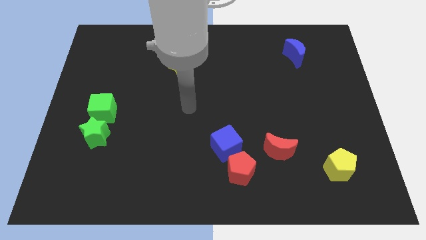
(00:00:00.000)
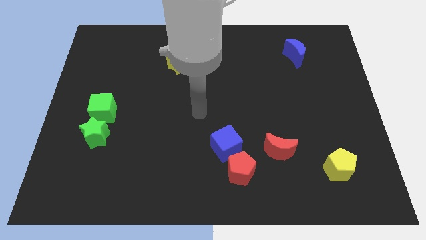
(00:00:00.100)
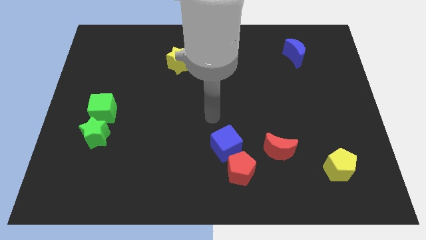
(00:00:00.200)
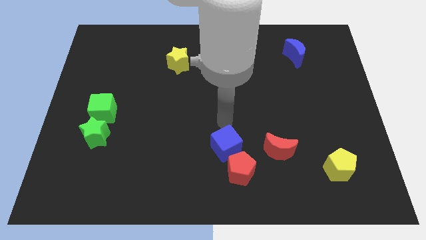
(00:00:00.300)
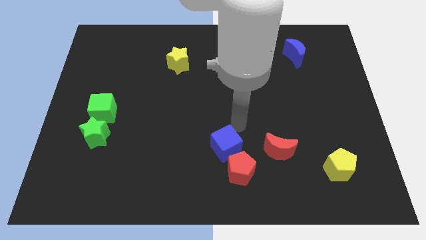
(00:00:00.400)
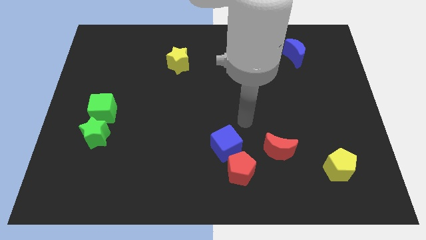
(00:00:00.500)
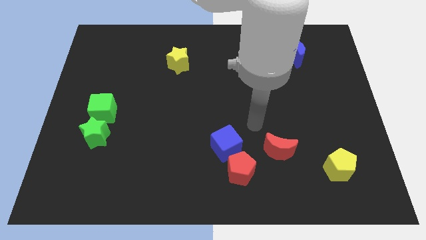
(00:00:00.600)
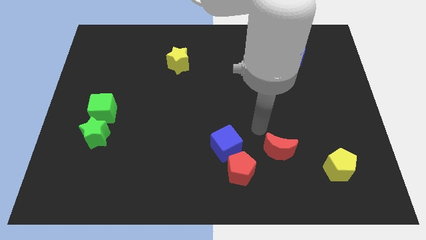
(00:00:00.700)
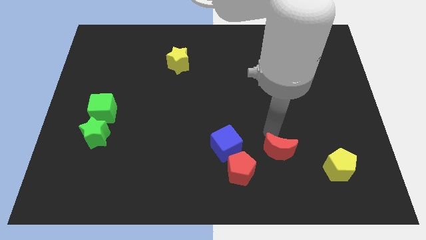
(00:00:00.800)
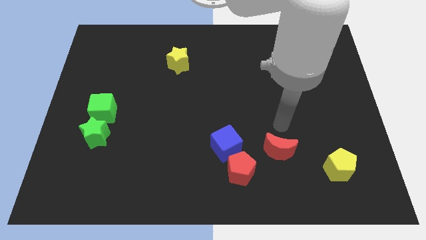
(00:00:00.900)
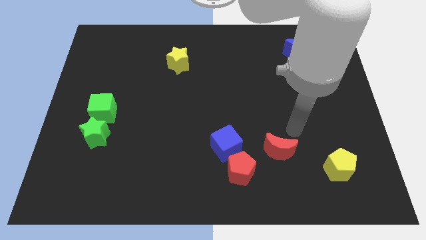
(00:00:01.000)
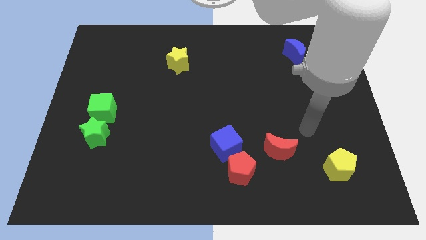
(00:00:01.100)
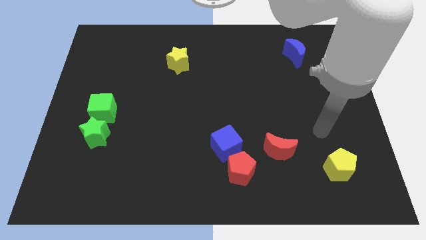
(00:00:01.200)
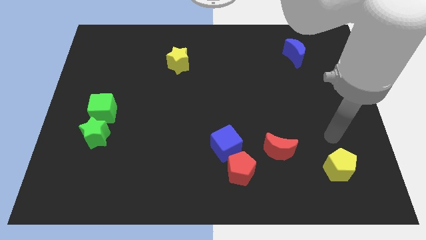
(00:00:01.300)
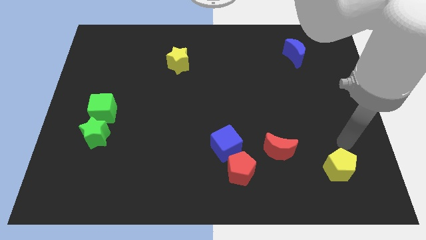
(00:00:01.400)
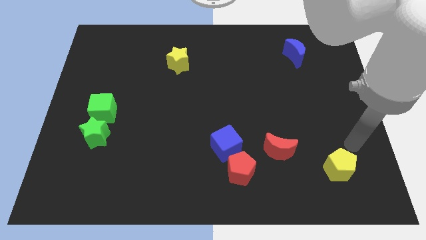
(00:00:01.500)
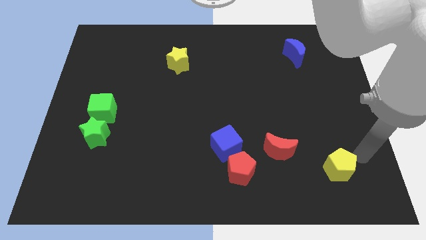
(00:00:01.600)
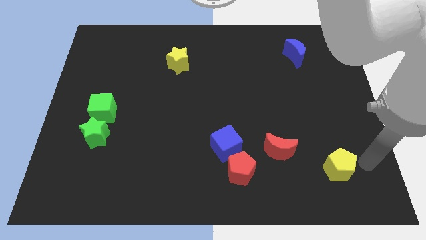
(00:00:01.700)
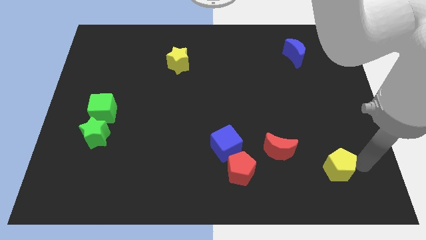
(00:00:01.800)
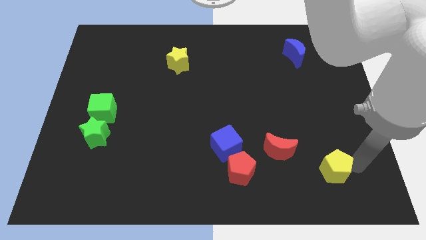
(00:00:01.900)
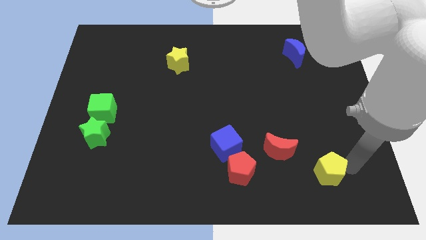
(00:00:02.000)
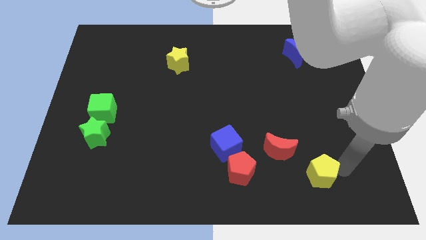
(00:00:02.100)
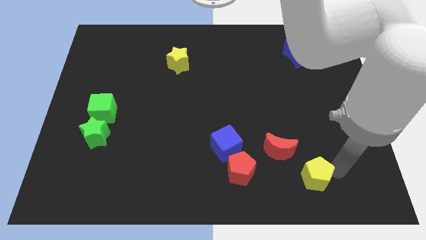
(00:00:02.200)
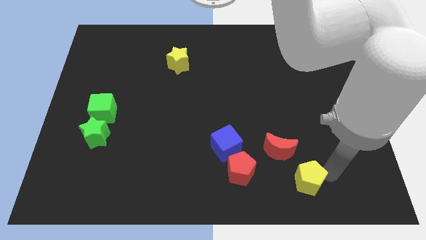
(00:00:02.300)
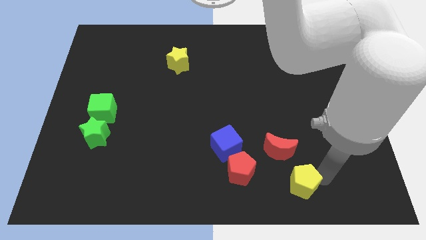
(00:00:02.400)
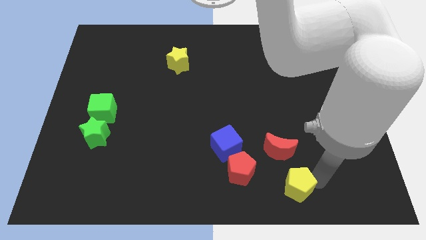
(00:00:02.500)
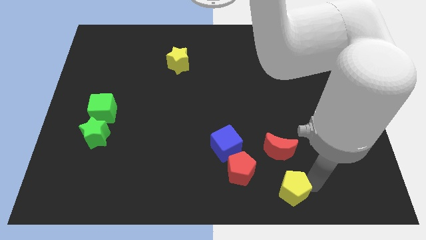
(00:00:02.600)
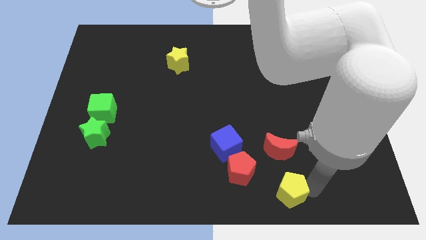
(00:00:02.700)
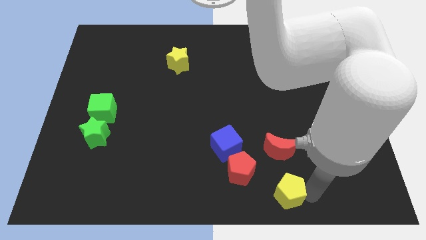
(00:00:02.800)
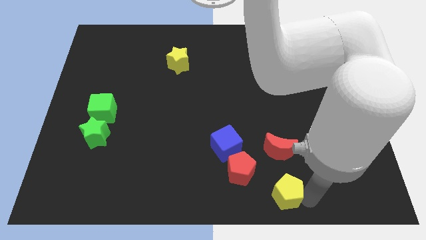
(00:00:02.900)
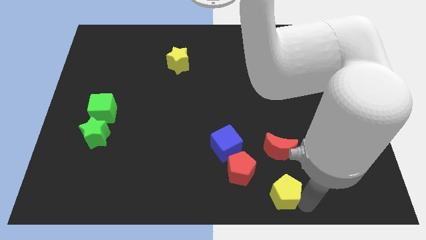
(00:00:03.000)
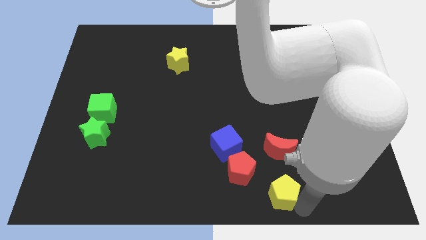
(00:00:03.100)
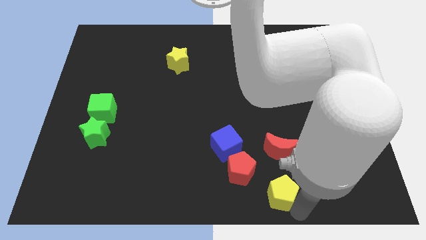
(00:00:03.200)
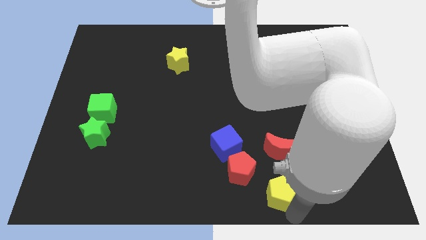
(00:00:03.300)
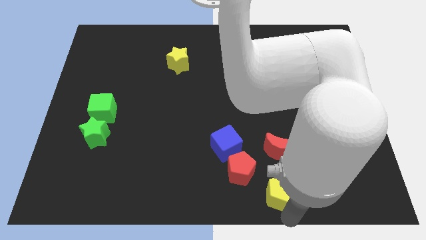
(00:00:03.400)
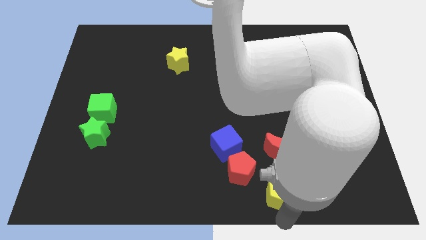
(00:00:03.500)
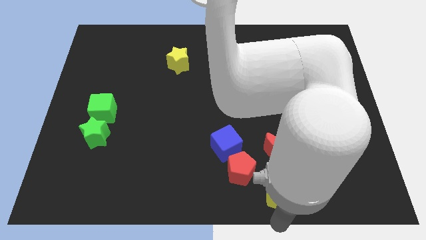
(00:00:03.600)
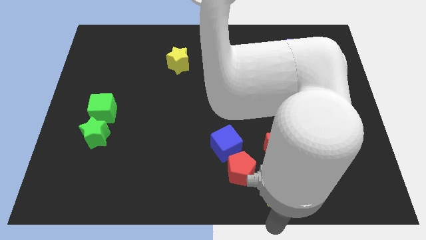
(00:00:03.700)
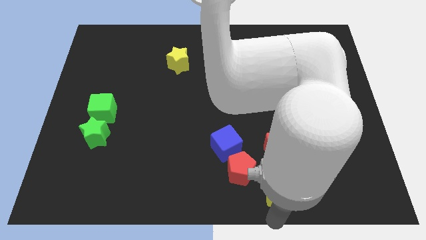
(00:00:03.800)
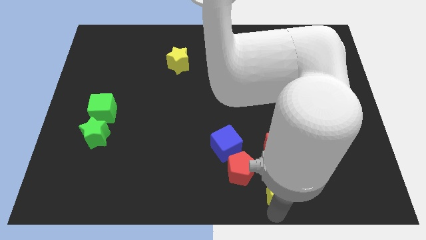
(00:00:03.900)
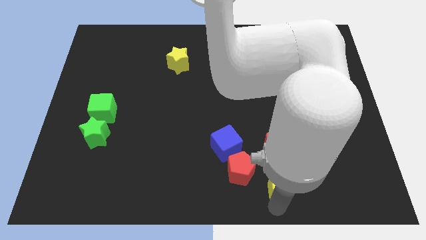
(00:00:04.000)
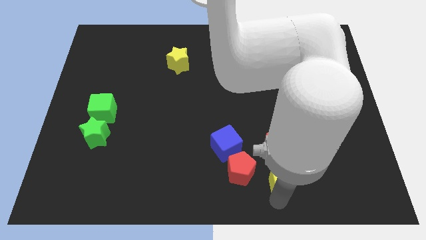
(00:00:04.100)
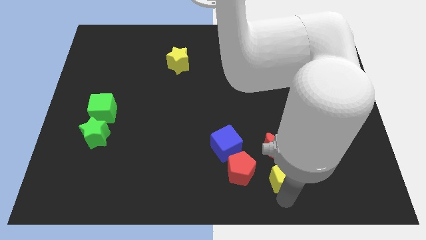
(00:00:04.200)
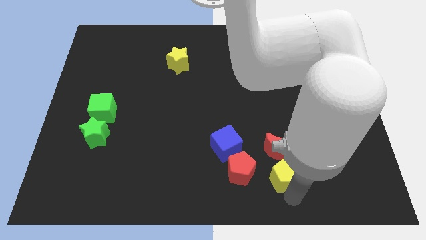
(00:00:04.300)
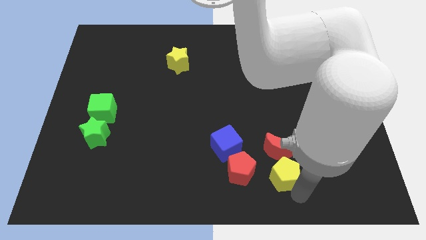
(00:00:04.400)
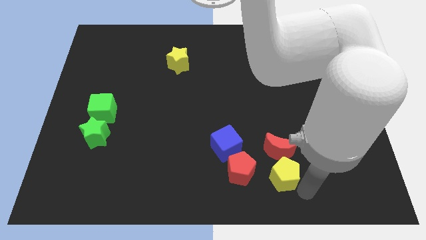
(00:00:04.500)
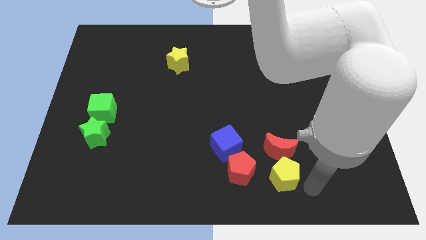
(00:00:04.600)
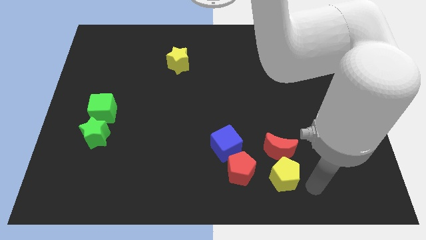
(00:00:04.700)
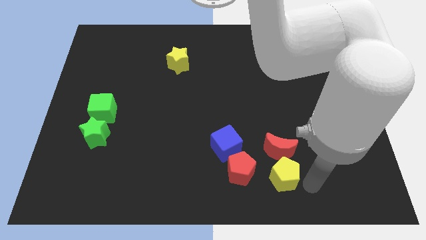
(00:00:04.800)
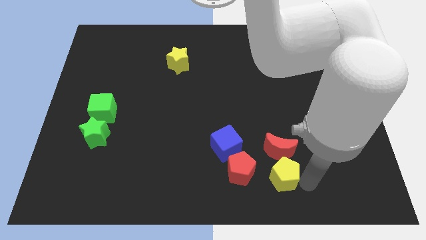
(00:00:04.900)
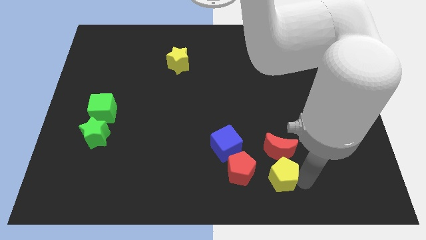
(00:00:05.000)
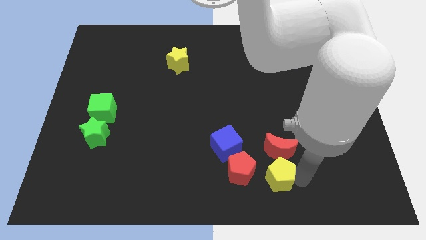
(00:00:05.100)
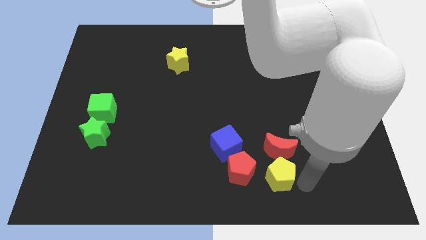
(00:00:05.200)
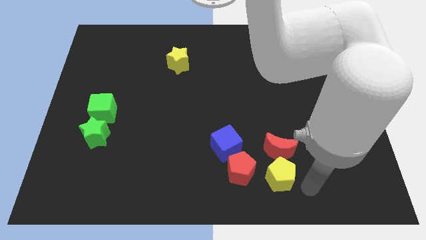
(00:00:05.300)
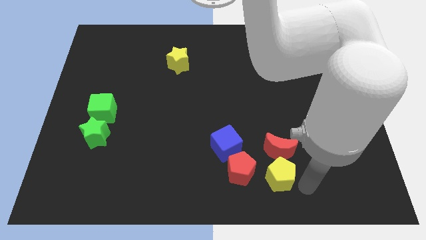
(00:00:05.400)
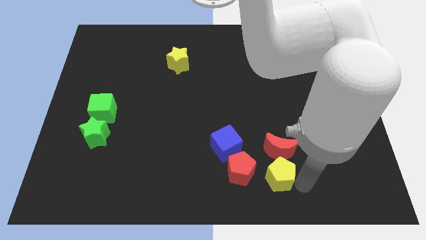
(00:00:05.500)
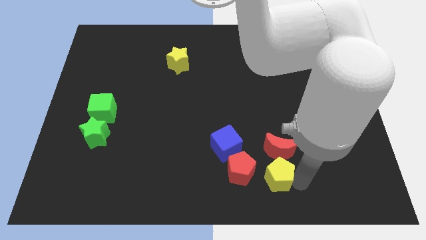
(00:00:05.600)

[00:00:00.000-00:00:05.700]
put the yellow pentagon to the bottom right side of the blue cube

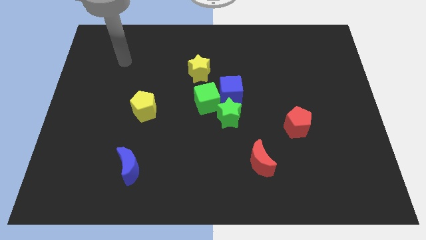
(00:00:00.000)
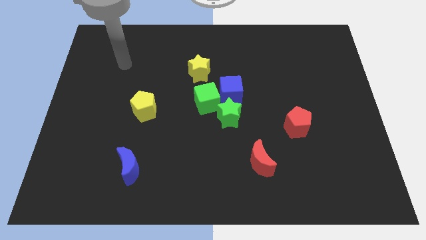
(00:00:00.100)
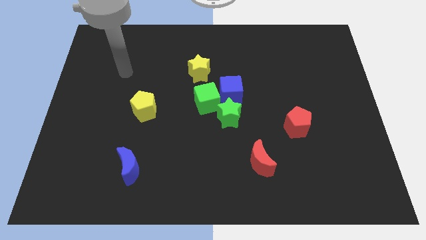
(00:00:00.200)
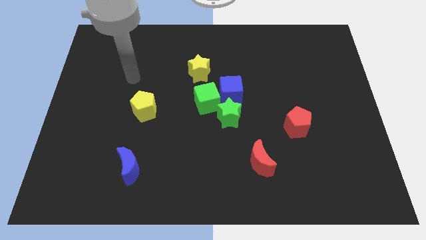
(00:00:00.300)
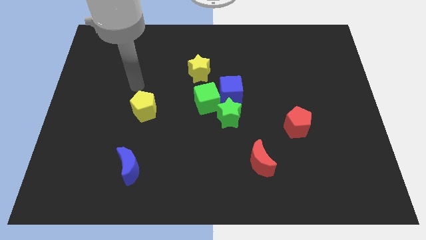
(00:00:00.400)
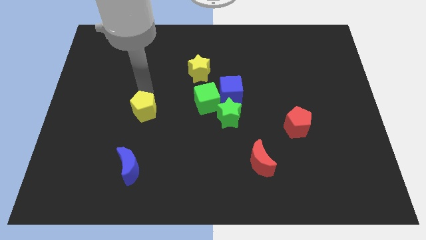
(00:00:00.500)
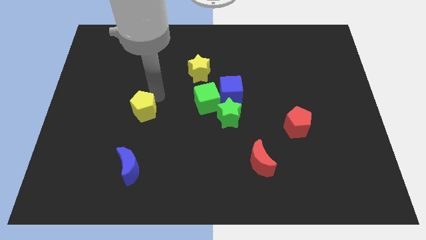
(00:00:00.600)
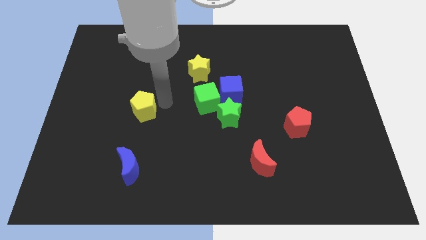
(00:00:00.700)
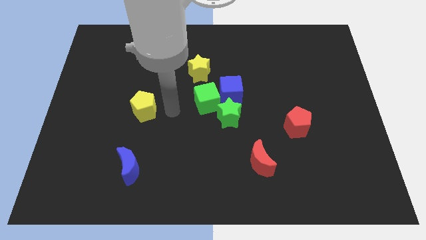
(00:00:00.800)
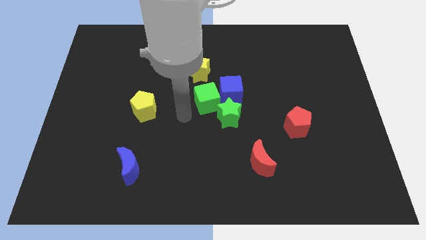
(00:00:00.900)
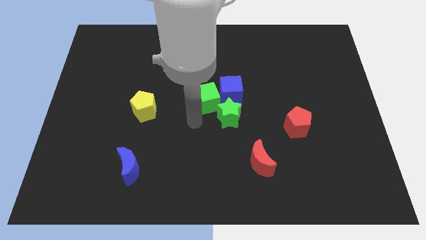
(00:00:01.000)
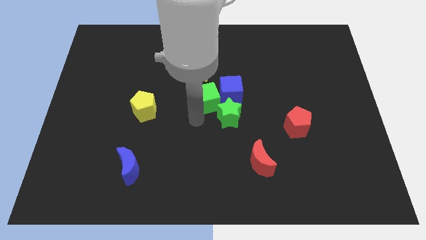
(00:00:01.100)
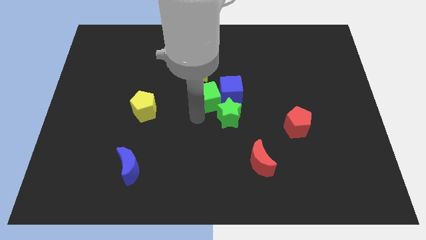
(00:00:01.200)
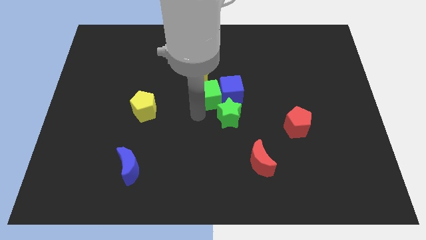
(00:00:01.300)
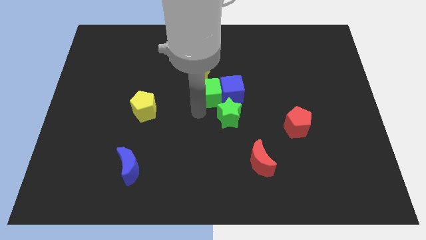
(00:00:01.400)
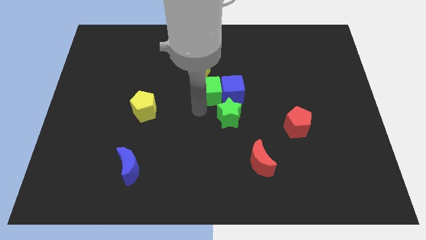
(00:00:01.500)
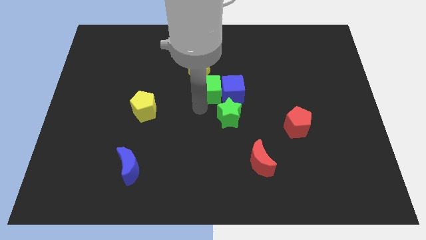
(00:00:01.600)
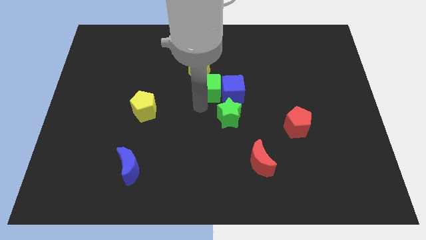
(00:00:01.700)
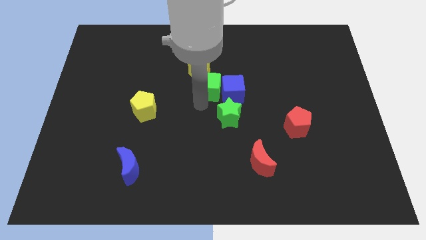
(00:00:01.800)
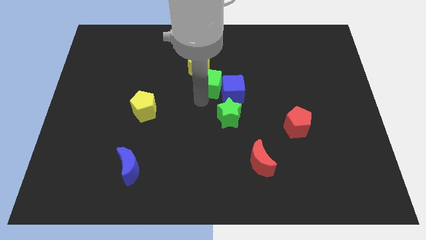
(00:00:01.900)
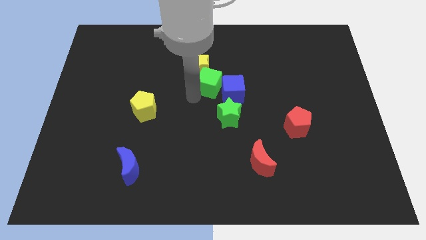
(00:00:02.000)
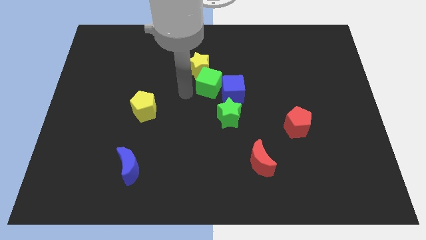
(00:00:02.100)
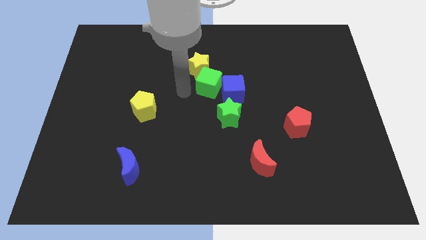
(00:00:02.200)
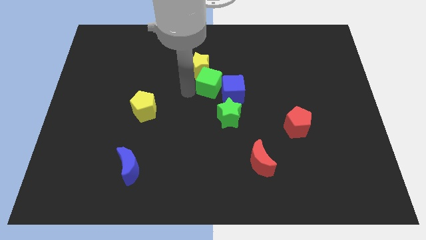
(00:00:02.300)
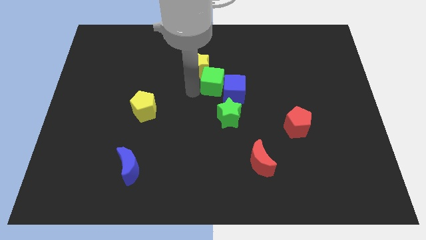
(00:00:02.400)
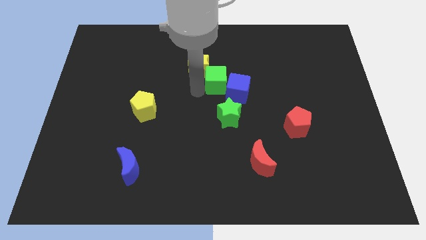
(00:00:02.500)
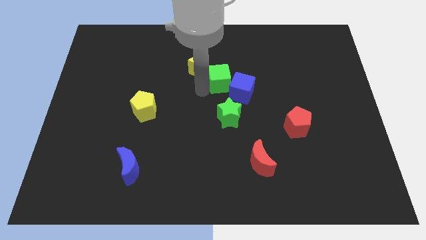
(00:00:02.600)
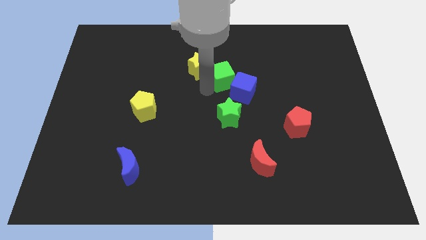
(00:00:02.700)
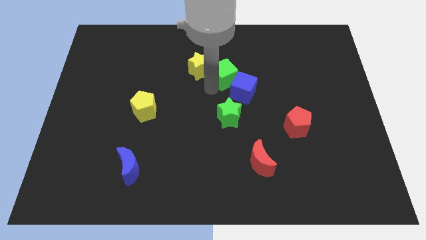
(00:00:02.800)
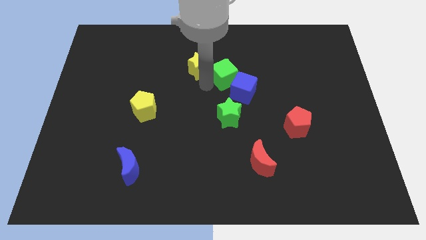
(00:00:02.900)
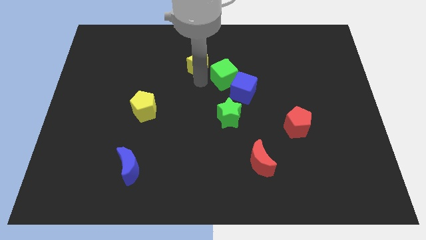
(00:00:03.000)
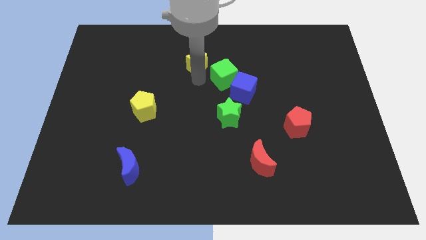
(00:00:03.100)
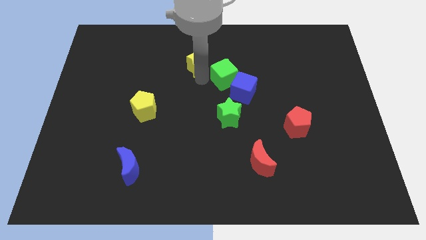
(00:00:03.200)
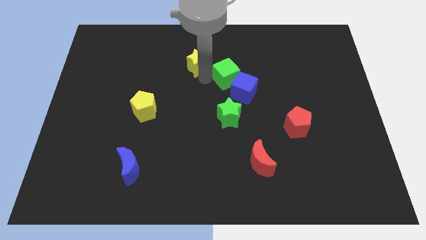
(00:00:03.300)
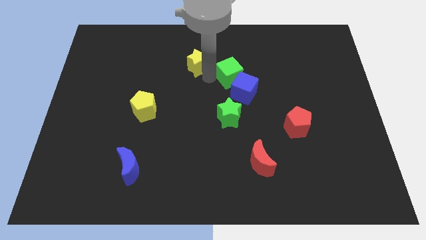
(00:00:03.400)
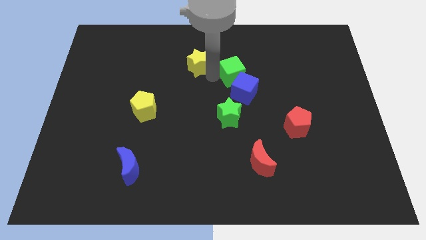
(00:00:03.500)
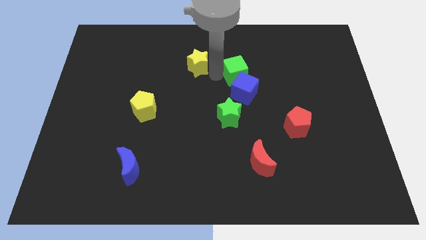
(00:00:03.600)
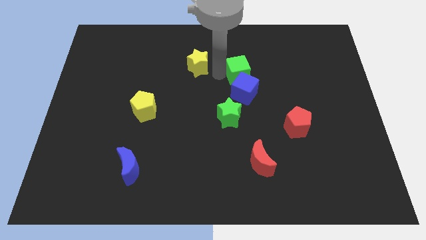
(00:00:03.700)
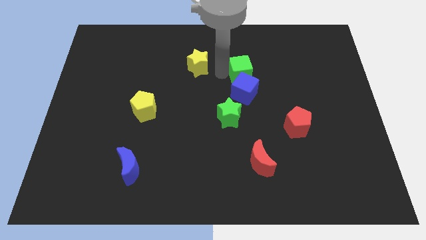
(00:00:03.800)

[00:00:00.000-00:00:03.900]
put the green cube to the top right of the blue cube
